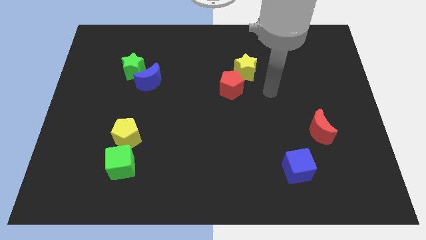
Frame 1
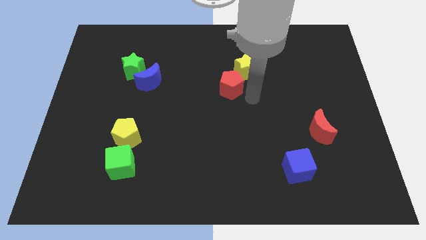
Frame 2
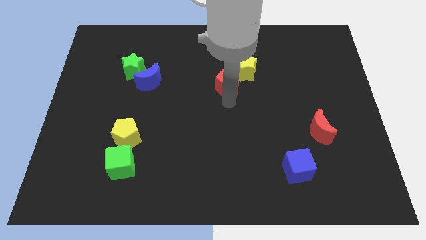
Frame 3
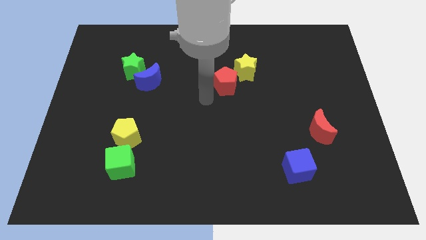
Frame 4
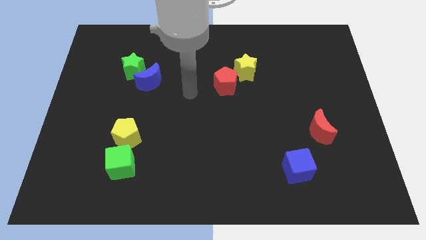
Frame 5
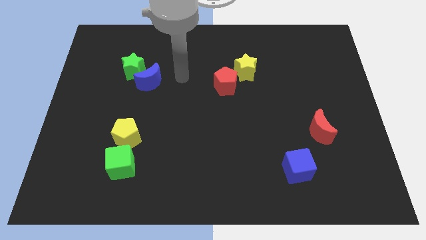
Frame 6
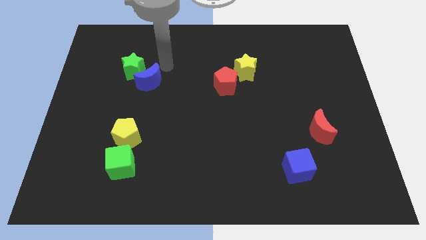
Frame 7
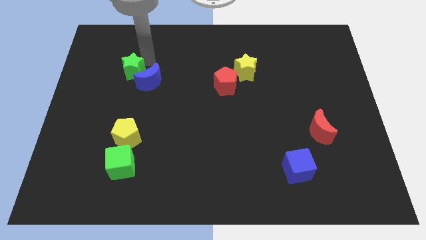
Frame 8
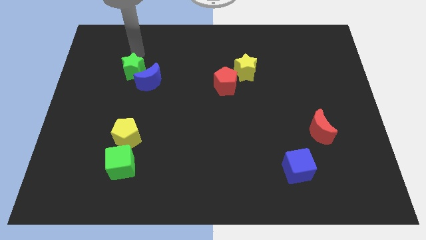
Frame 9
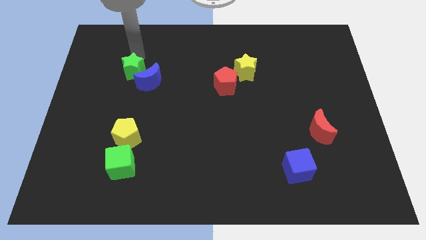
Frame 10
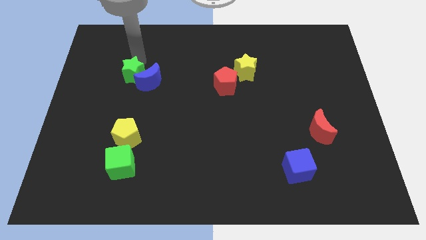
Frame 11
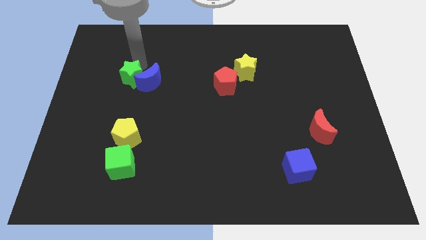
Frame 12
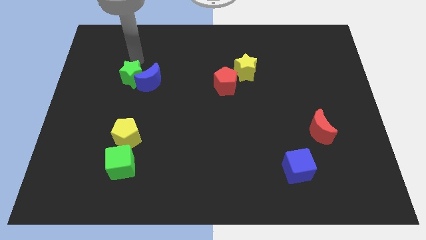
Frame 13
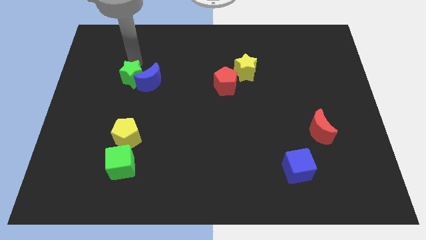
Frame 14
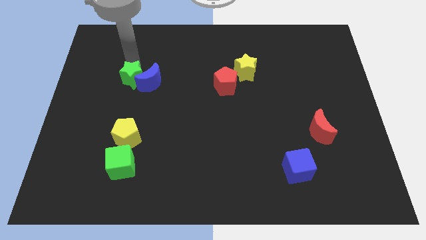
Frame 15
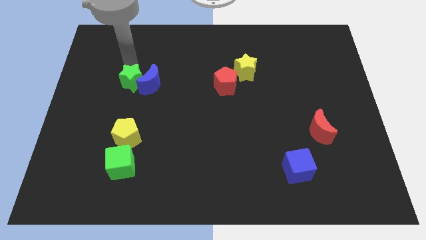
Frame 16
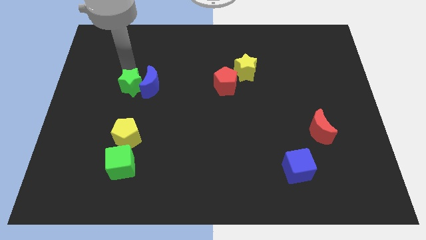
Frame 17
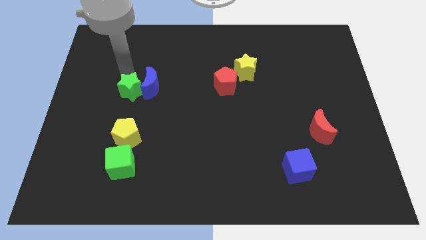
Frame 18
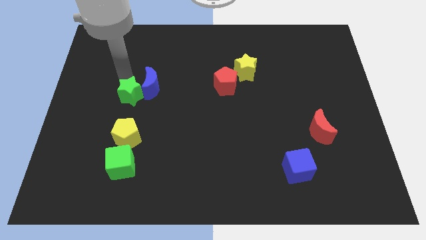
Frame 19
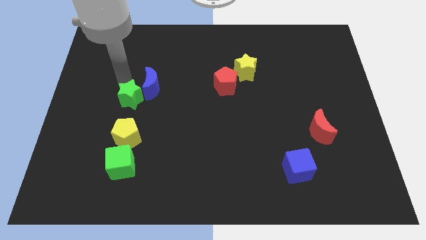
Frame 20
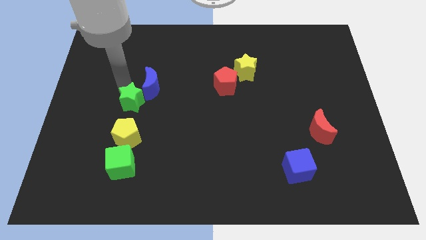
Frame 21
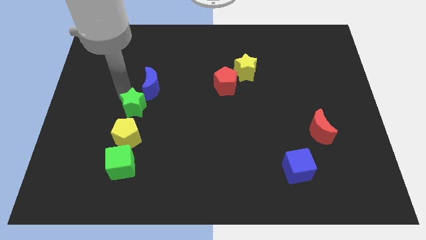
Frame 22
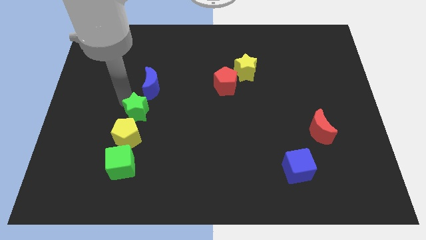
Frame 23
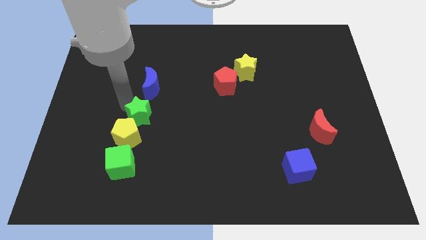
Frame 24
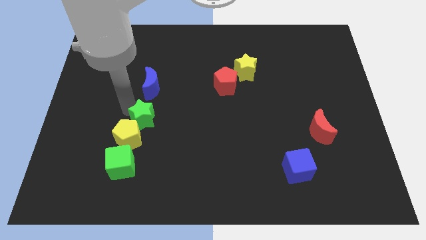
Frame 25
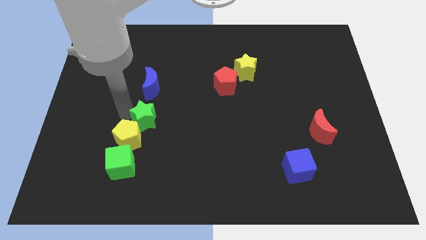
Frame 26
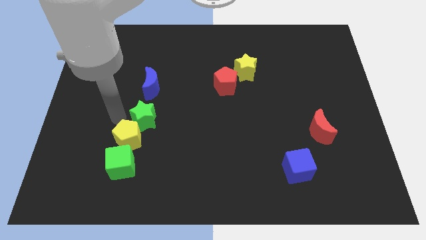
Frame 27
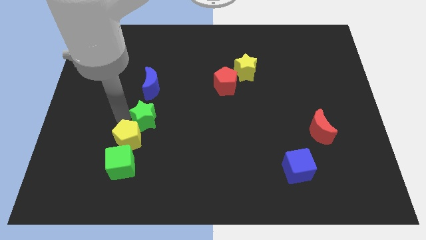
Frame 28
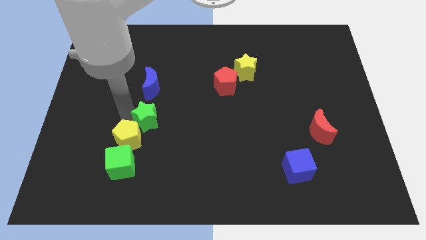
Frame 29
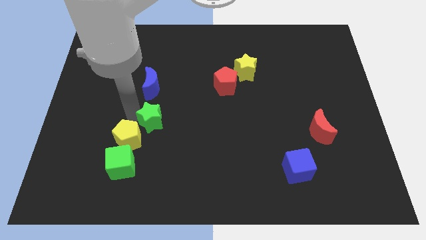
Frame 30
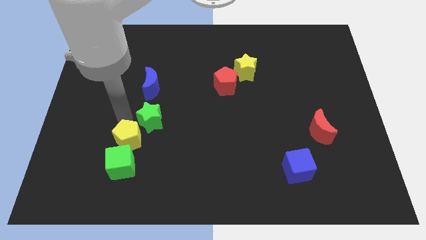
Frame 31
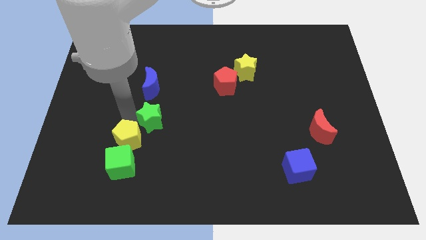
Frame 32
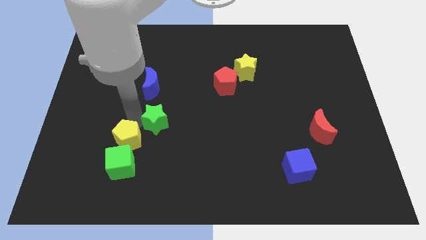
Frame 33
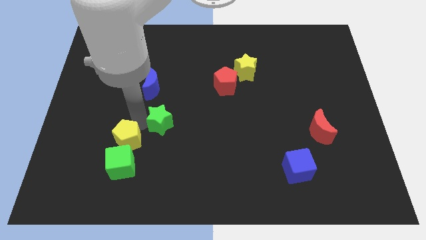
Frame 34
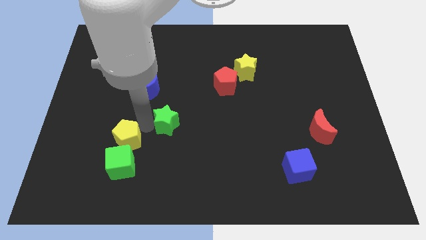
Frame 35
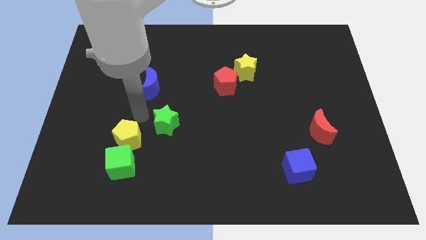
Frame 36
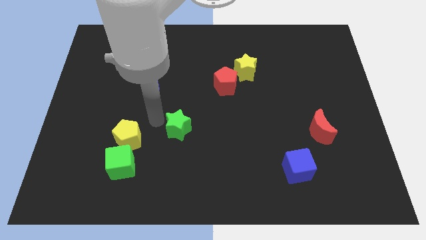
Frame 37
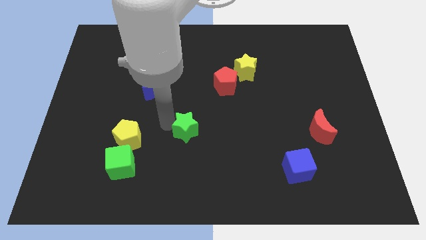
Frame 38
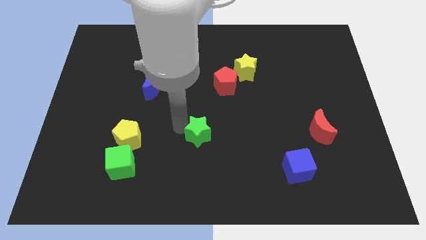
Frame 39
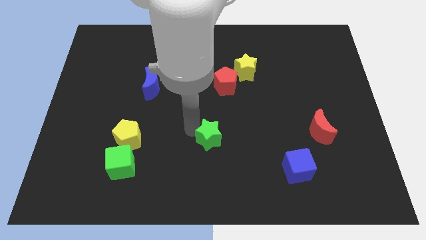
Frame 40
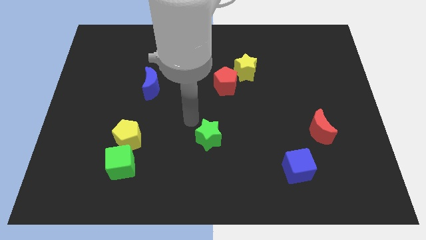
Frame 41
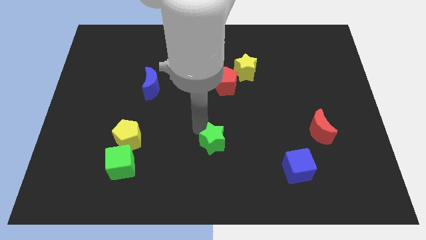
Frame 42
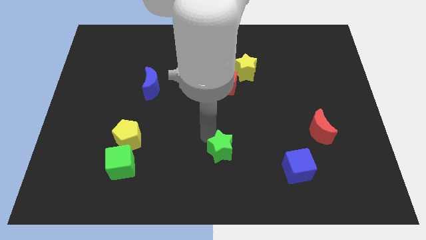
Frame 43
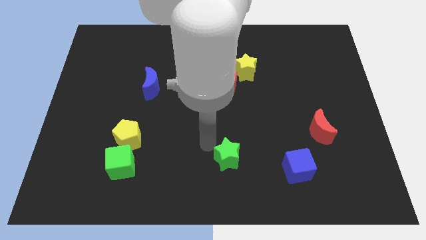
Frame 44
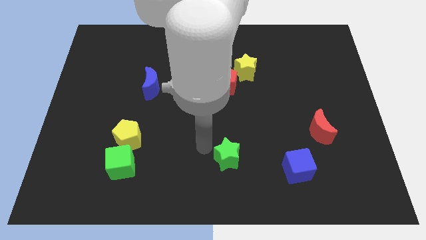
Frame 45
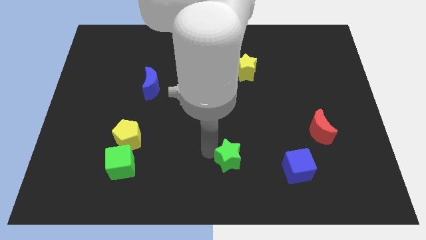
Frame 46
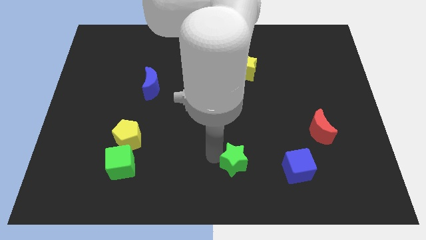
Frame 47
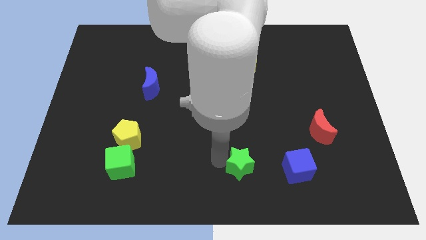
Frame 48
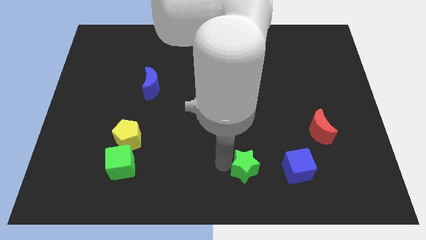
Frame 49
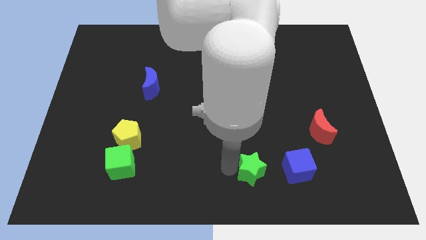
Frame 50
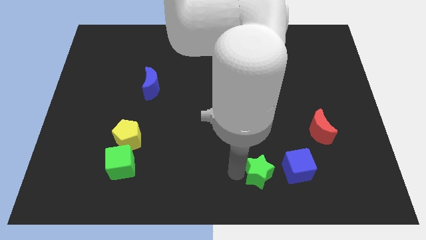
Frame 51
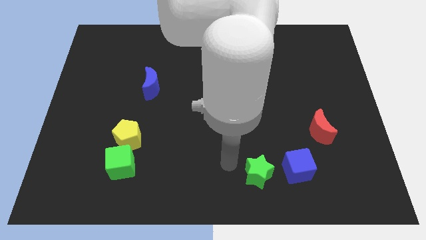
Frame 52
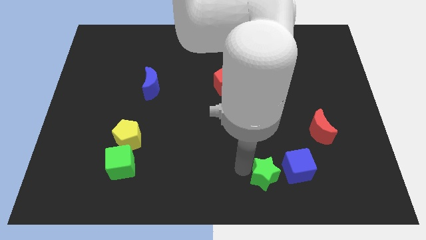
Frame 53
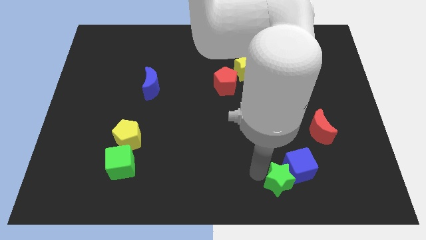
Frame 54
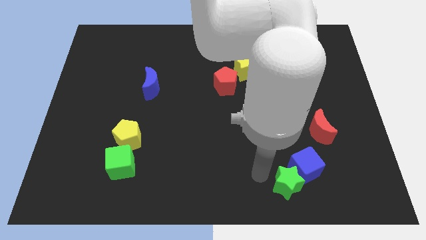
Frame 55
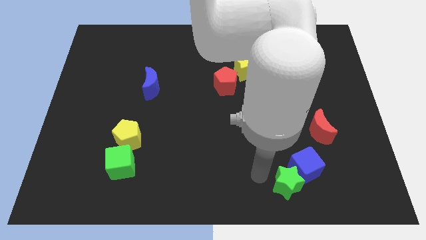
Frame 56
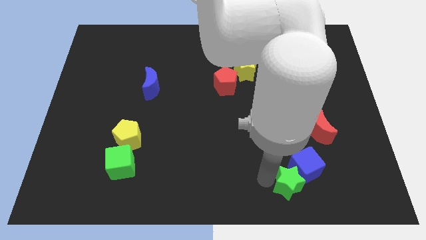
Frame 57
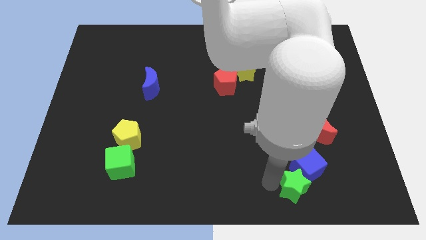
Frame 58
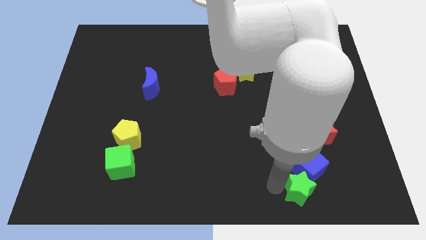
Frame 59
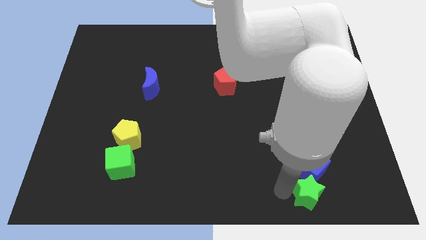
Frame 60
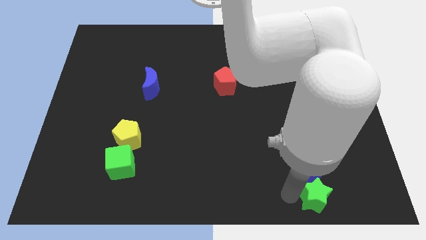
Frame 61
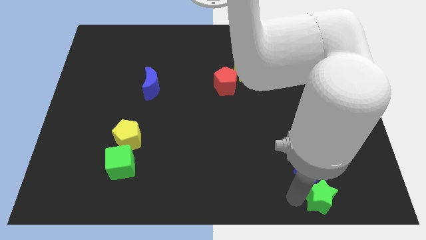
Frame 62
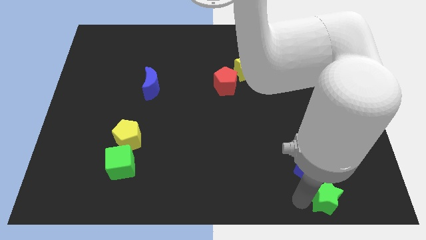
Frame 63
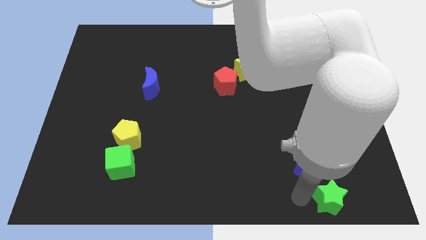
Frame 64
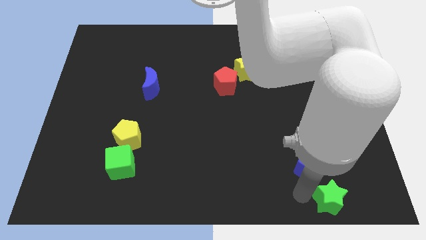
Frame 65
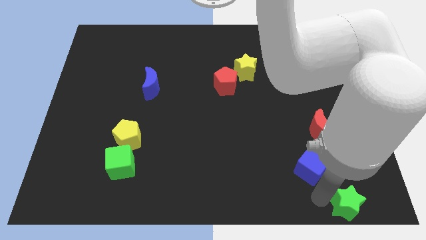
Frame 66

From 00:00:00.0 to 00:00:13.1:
move the green star to the lower right corner
